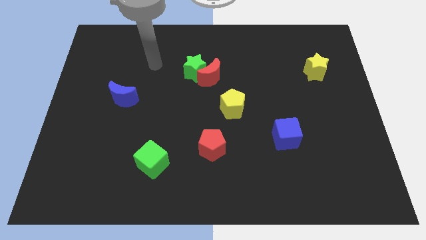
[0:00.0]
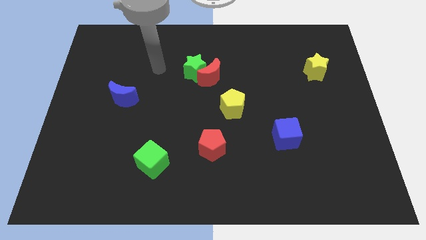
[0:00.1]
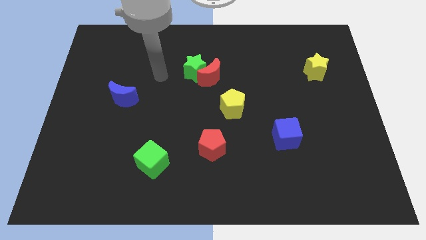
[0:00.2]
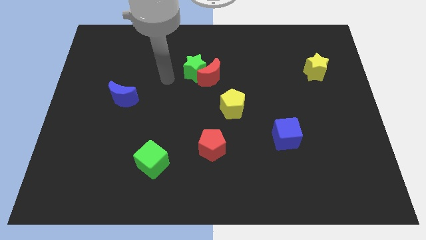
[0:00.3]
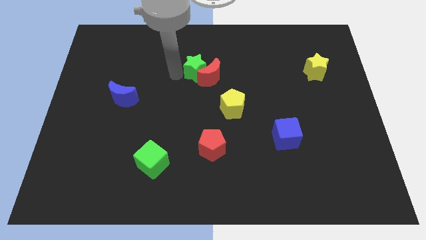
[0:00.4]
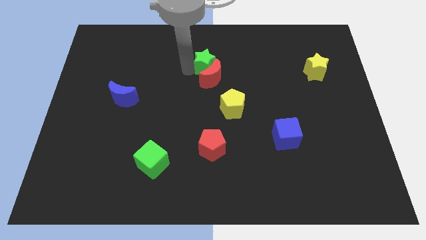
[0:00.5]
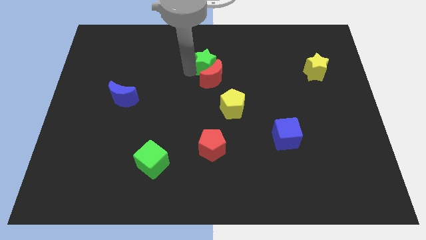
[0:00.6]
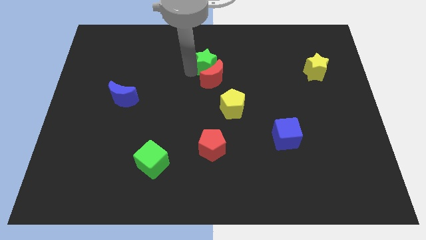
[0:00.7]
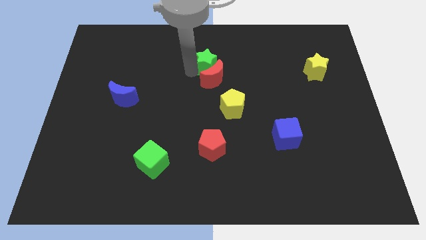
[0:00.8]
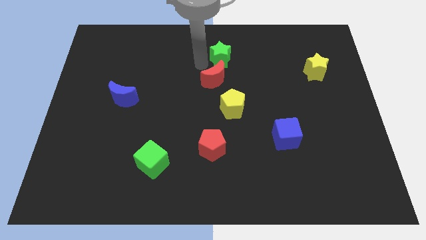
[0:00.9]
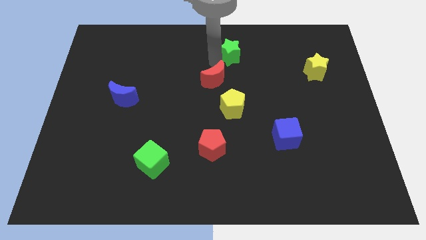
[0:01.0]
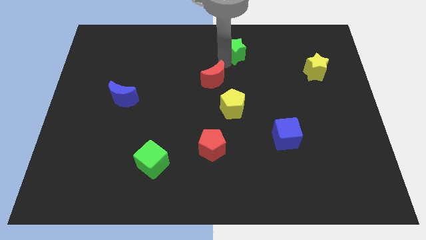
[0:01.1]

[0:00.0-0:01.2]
move the red moon away from the green star

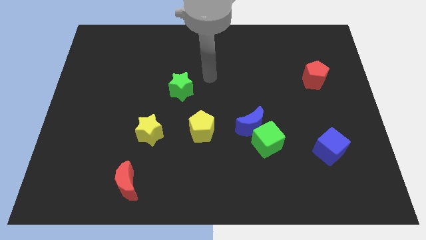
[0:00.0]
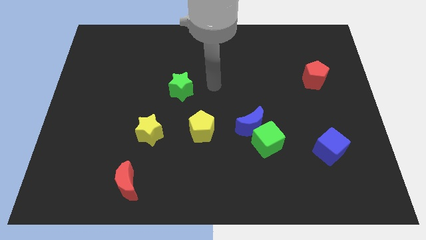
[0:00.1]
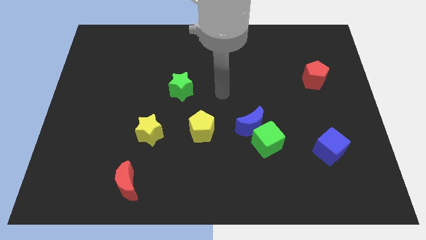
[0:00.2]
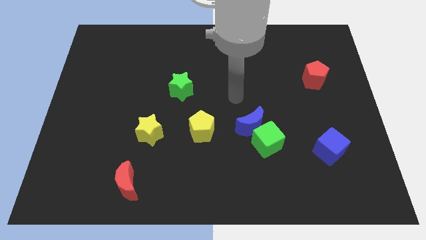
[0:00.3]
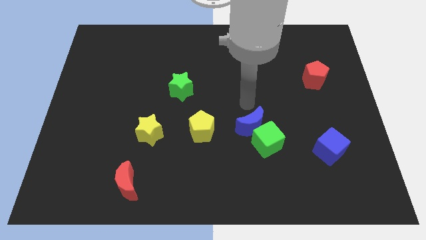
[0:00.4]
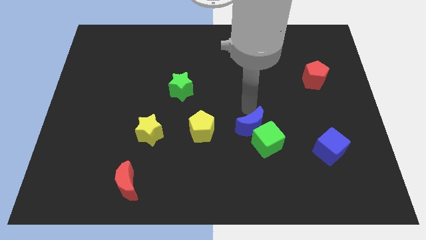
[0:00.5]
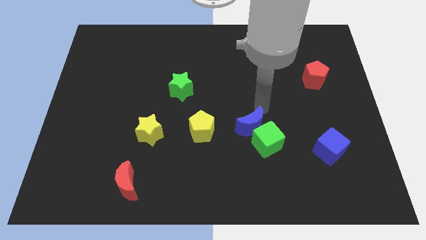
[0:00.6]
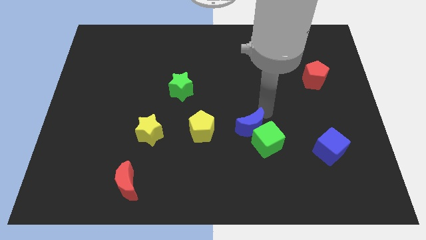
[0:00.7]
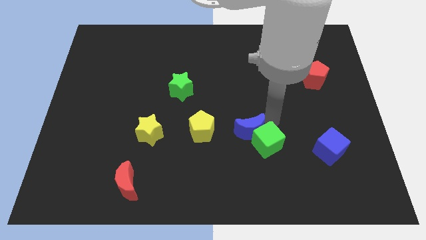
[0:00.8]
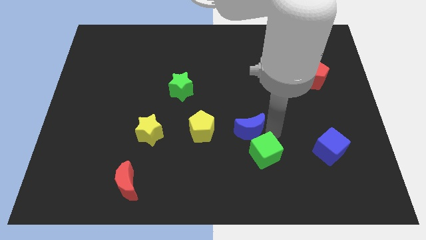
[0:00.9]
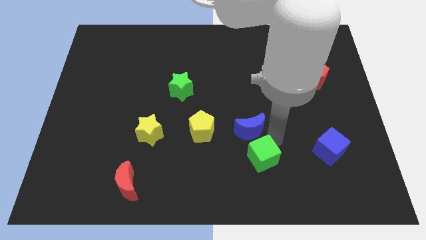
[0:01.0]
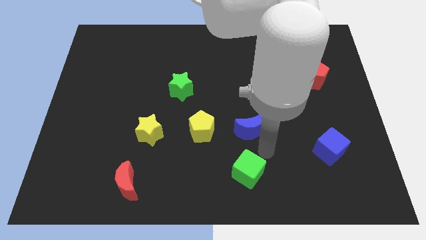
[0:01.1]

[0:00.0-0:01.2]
separate the blue moon from the green cube

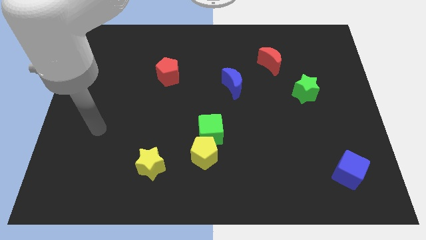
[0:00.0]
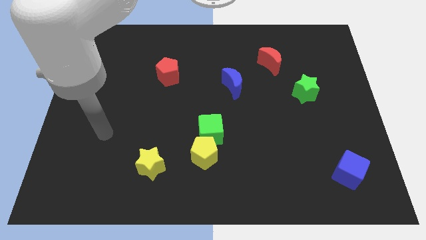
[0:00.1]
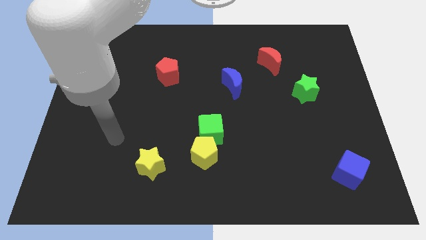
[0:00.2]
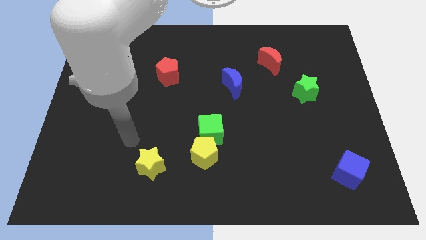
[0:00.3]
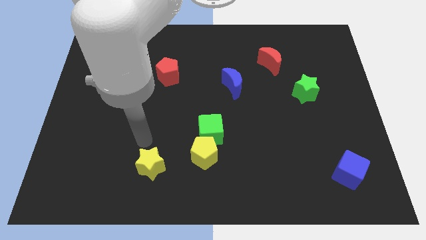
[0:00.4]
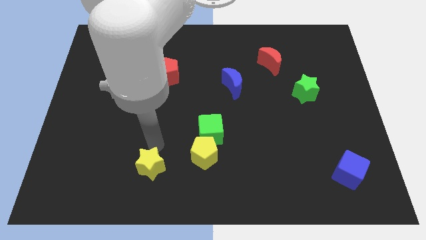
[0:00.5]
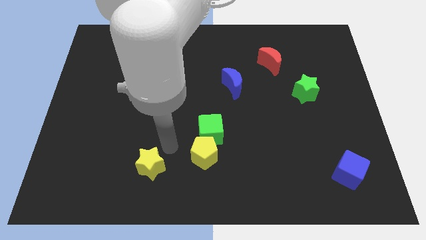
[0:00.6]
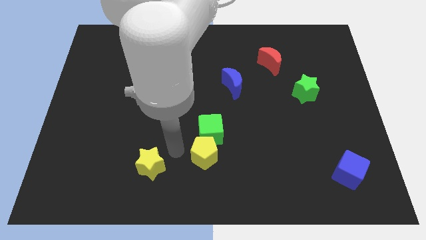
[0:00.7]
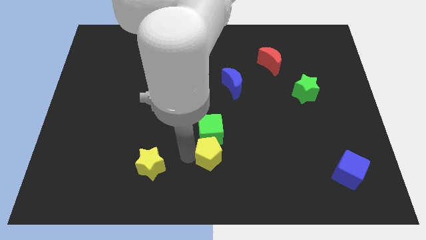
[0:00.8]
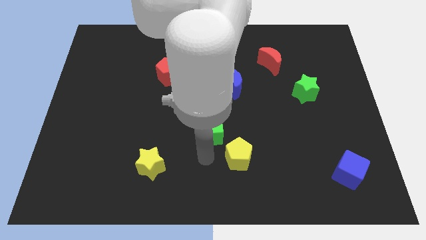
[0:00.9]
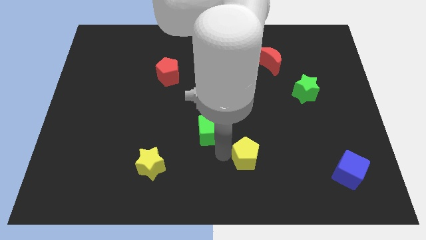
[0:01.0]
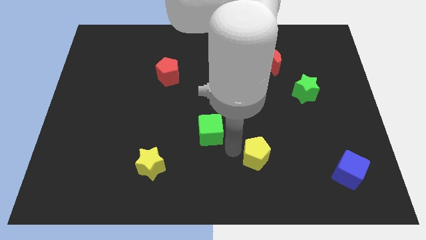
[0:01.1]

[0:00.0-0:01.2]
separate the green cube from the yellow pentagon

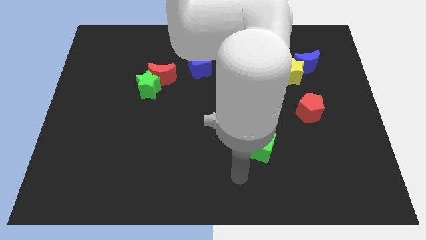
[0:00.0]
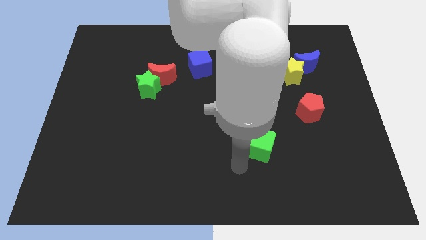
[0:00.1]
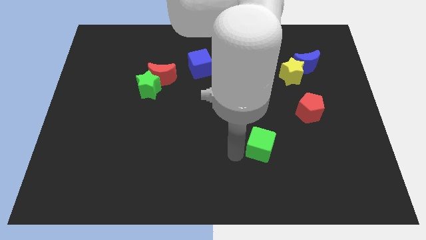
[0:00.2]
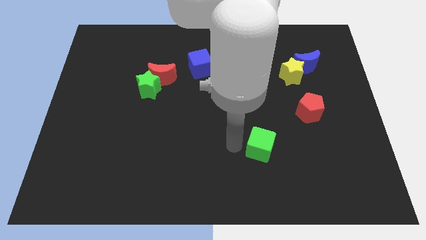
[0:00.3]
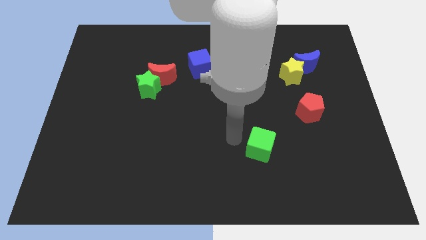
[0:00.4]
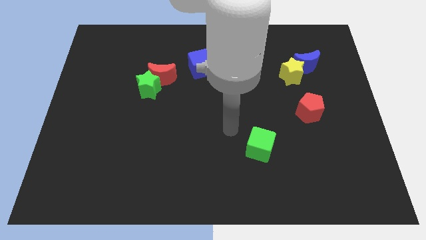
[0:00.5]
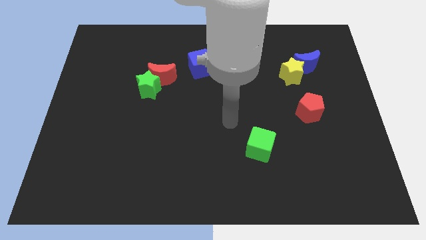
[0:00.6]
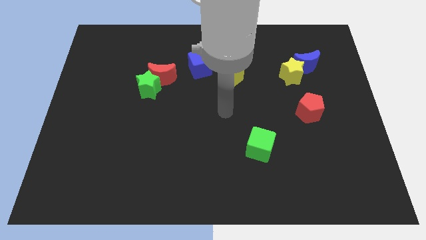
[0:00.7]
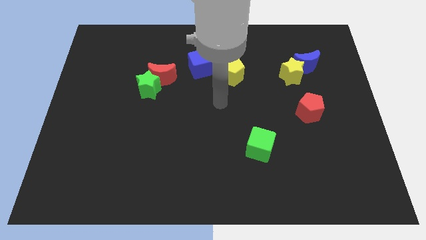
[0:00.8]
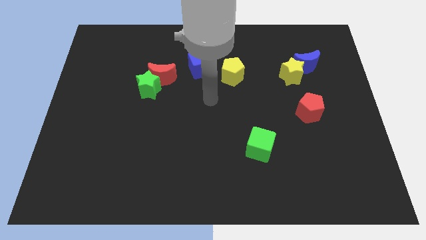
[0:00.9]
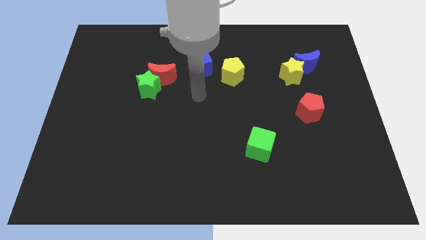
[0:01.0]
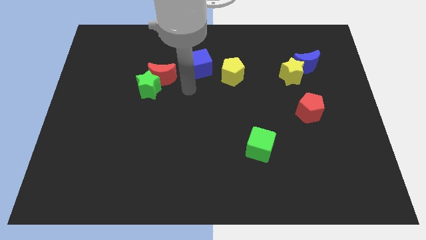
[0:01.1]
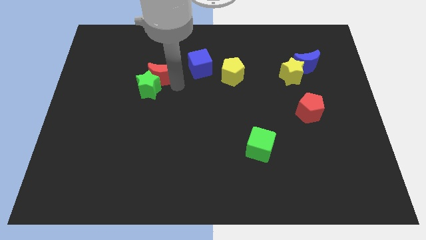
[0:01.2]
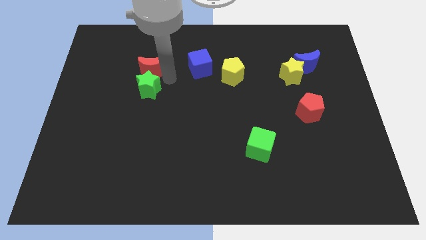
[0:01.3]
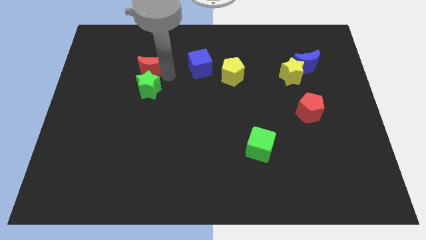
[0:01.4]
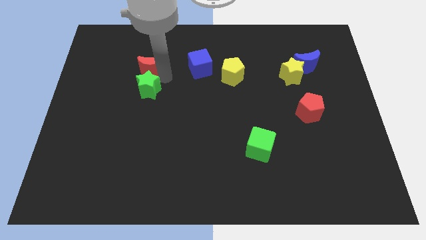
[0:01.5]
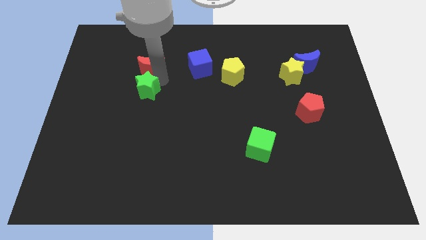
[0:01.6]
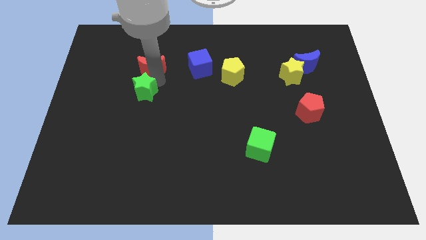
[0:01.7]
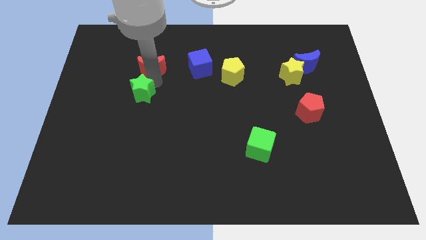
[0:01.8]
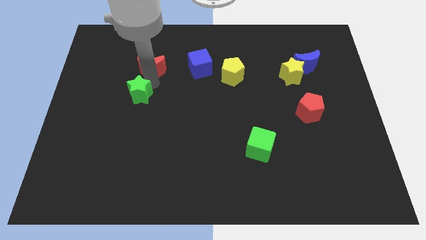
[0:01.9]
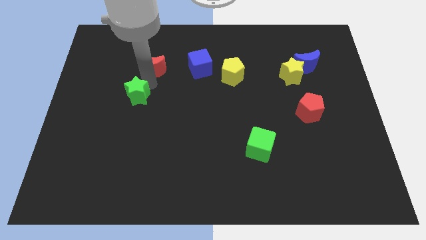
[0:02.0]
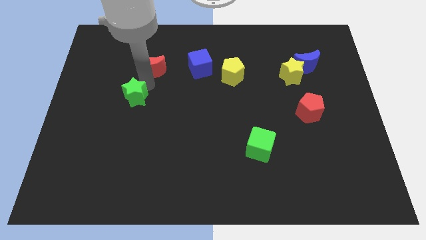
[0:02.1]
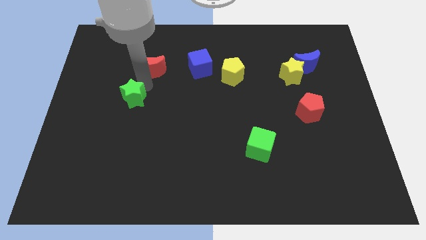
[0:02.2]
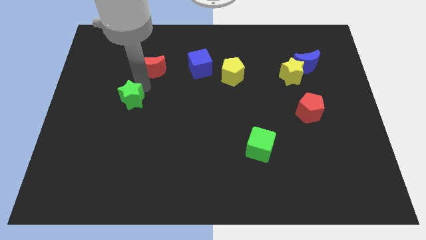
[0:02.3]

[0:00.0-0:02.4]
move the green star away from the red moon

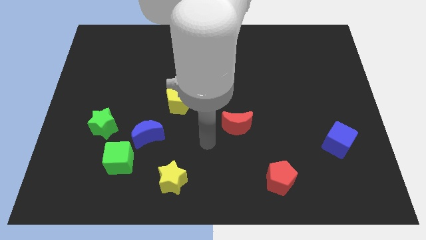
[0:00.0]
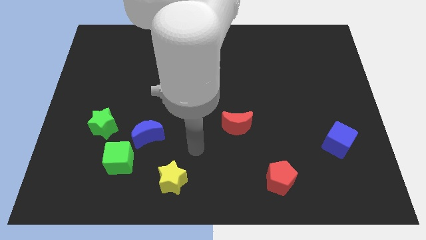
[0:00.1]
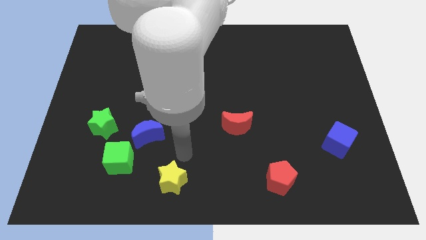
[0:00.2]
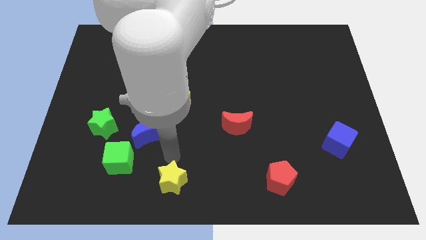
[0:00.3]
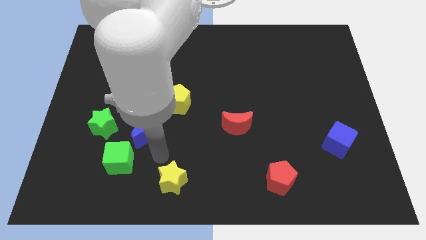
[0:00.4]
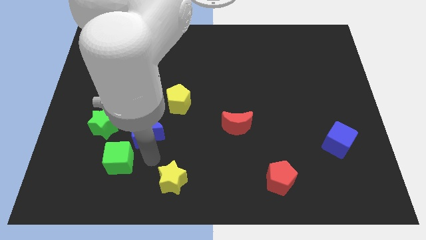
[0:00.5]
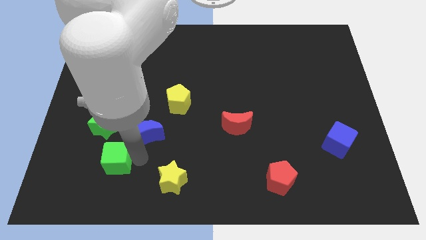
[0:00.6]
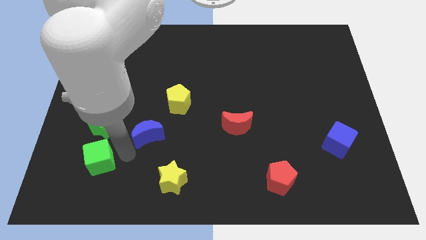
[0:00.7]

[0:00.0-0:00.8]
pull the blue moon apart from the green cube

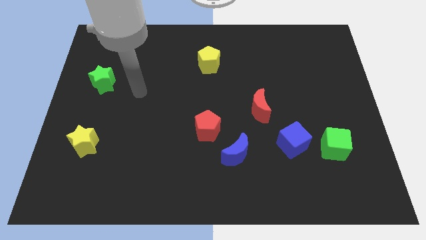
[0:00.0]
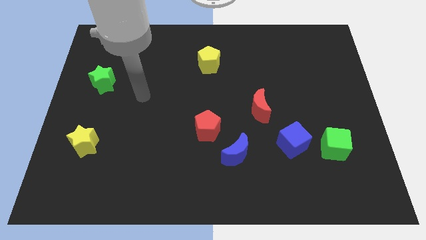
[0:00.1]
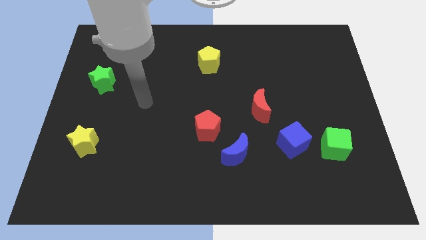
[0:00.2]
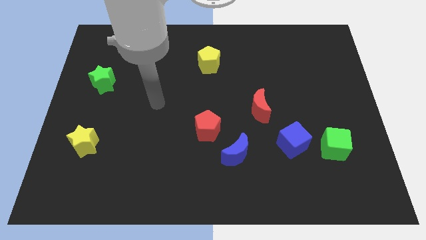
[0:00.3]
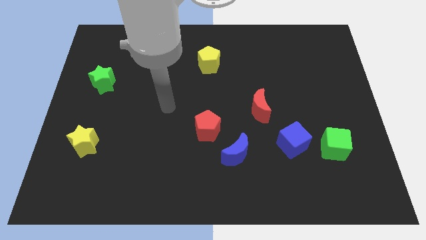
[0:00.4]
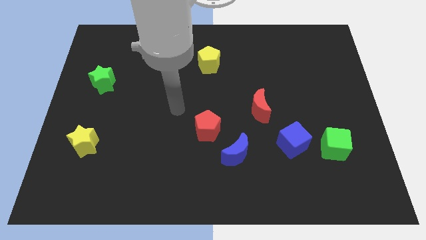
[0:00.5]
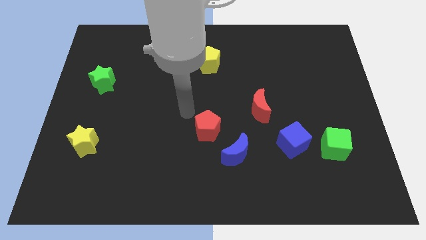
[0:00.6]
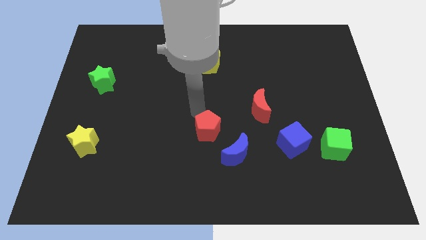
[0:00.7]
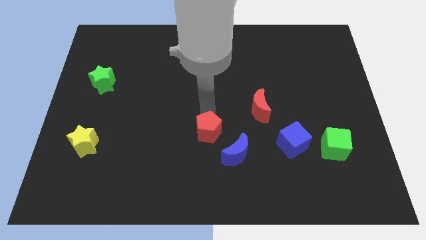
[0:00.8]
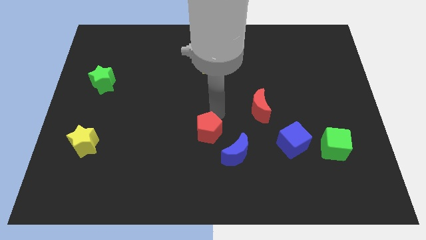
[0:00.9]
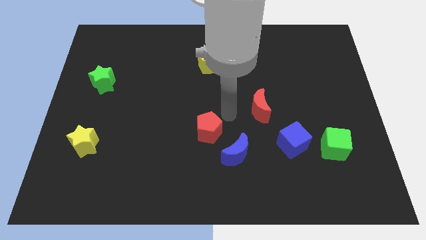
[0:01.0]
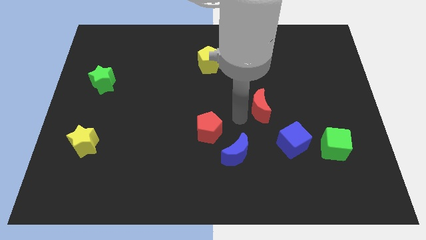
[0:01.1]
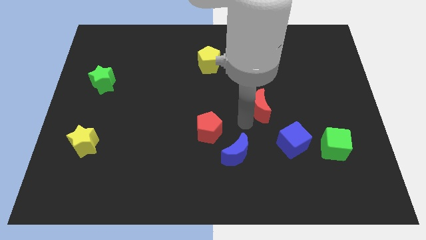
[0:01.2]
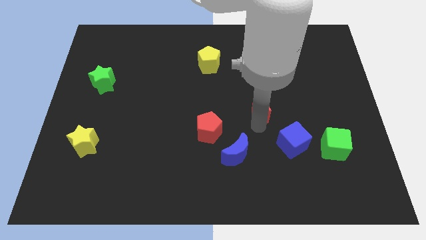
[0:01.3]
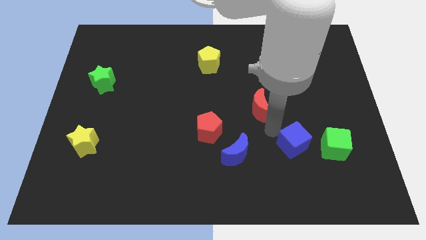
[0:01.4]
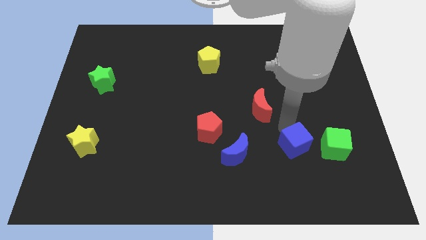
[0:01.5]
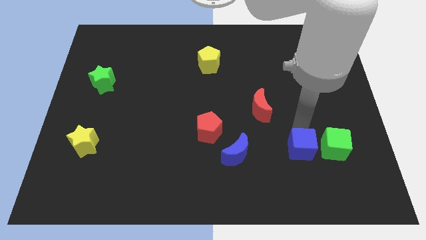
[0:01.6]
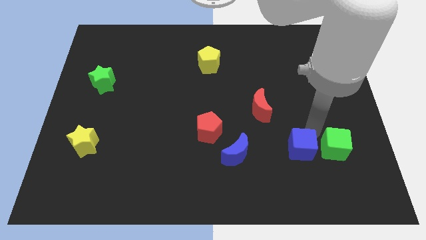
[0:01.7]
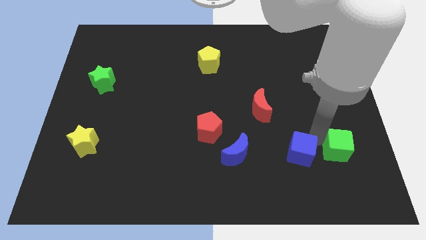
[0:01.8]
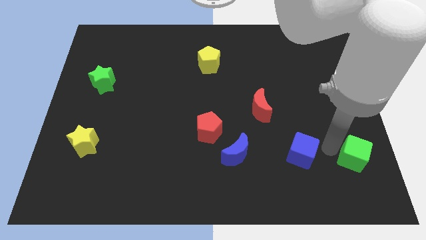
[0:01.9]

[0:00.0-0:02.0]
pull the blue cube apart from the green cube

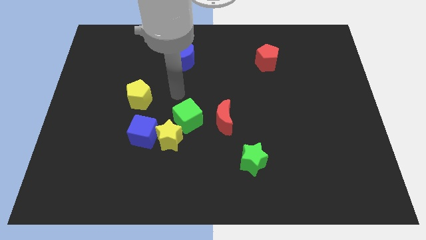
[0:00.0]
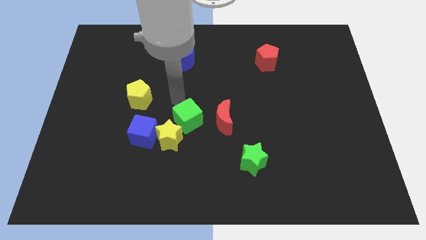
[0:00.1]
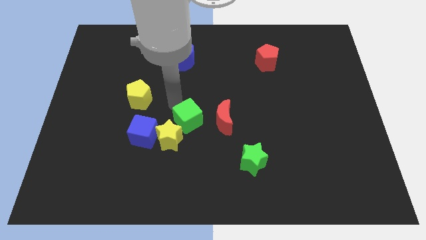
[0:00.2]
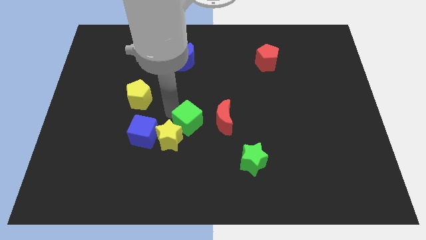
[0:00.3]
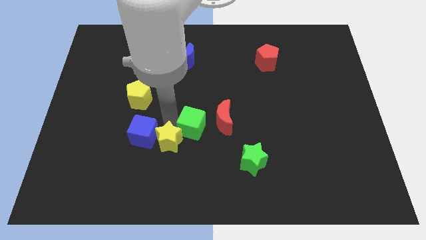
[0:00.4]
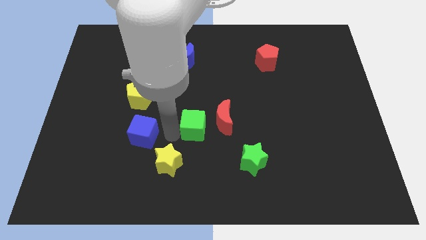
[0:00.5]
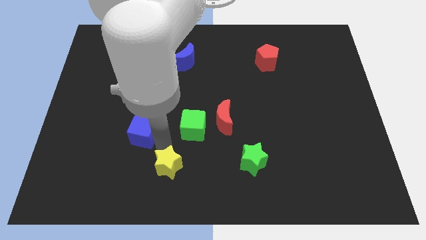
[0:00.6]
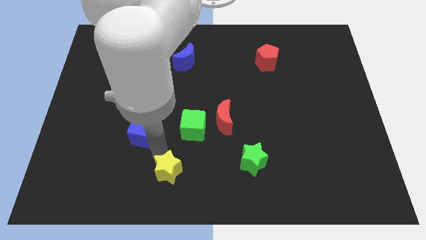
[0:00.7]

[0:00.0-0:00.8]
pull the blue cube apart from the yellow star
